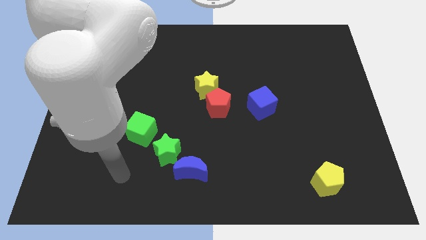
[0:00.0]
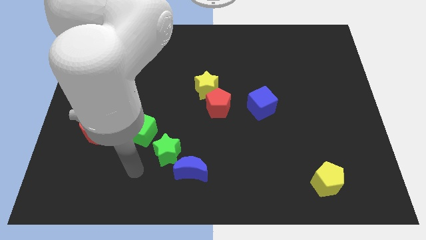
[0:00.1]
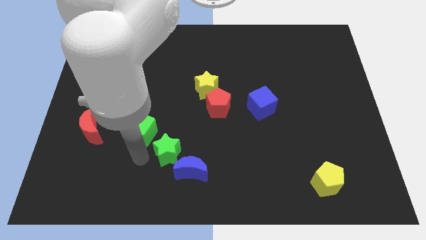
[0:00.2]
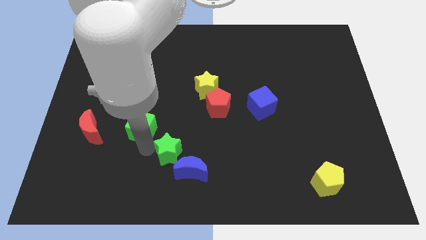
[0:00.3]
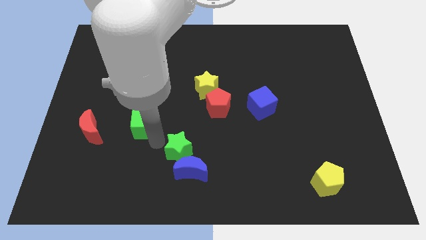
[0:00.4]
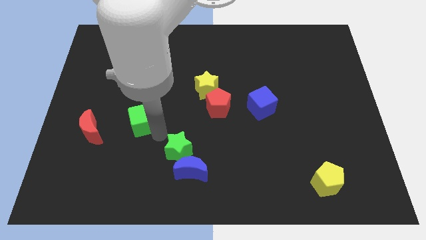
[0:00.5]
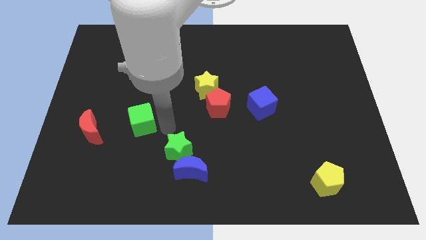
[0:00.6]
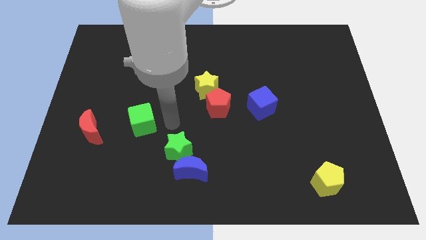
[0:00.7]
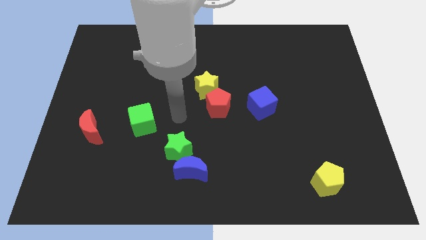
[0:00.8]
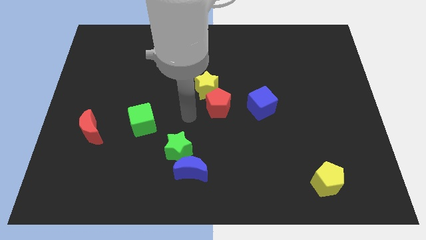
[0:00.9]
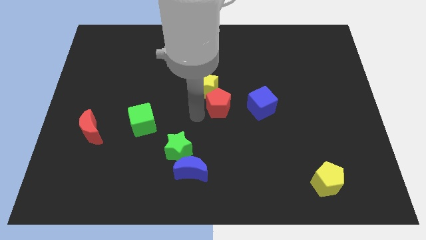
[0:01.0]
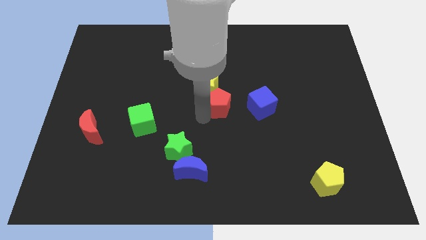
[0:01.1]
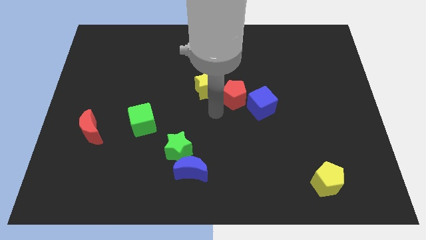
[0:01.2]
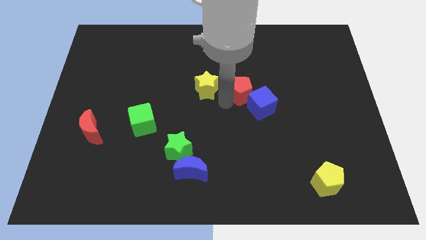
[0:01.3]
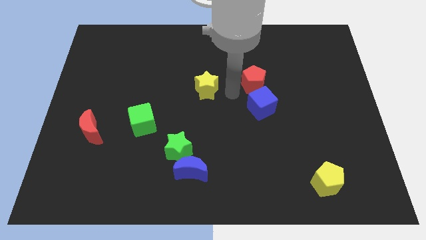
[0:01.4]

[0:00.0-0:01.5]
move the yellow star away from the red pentagon

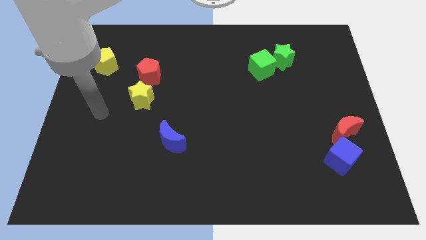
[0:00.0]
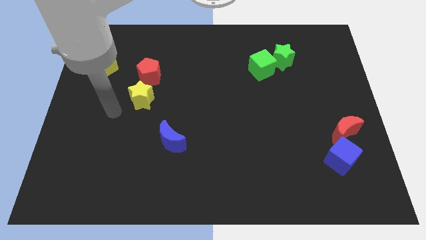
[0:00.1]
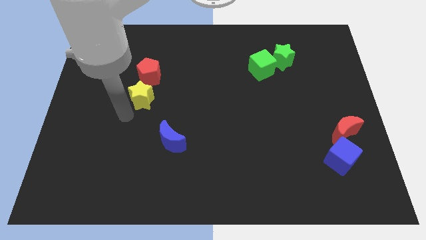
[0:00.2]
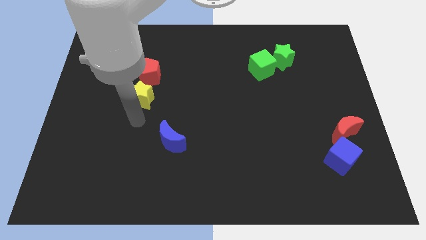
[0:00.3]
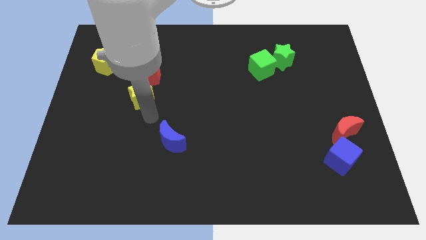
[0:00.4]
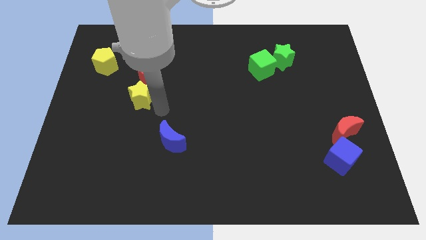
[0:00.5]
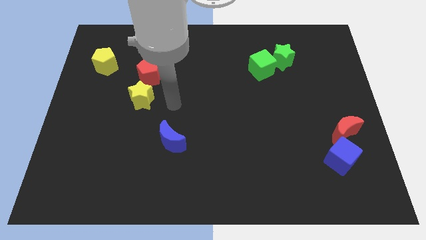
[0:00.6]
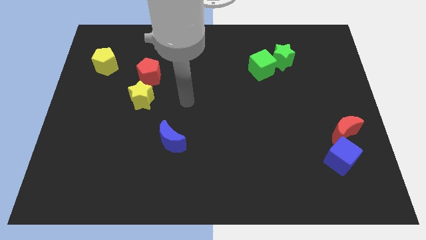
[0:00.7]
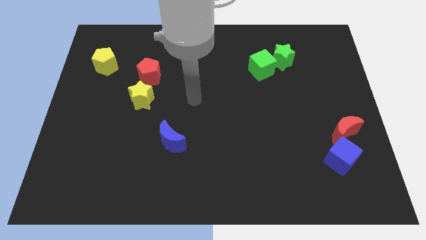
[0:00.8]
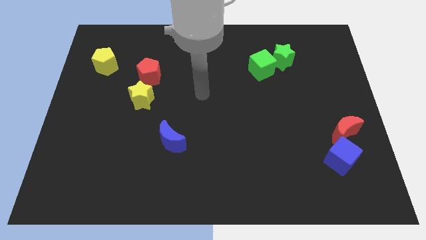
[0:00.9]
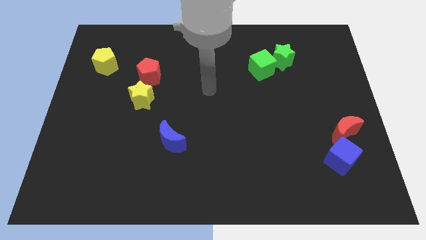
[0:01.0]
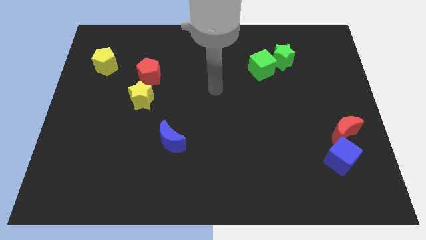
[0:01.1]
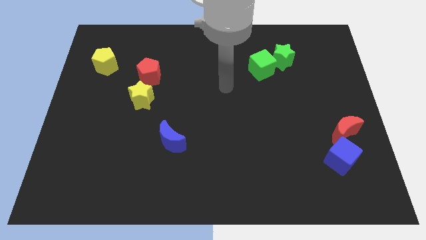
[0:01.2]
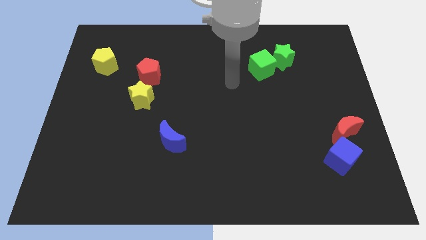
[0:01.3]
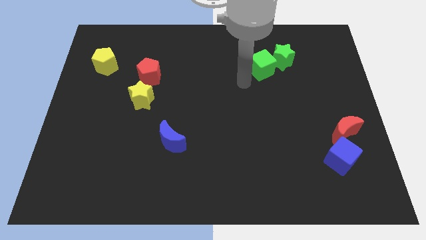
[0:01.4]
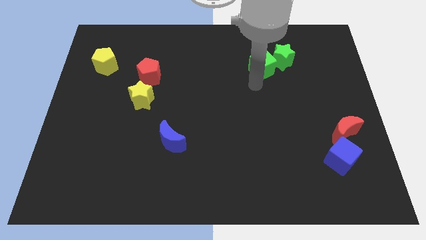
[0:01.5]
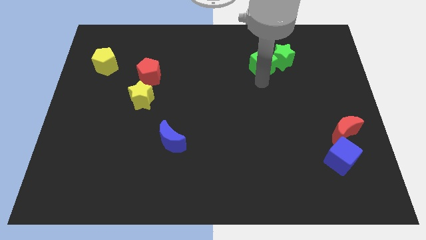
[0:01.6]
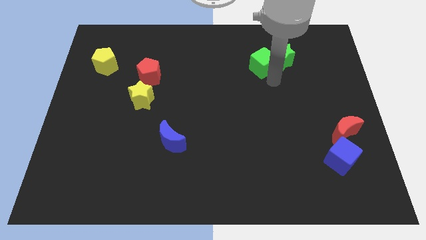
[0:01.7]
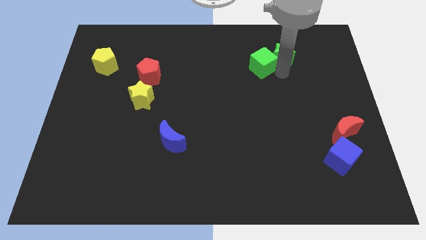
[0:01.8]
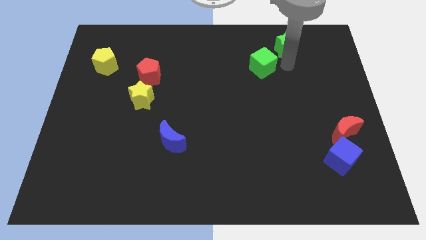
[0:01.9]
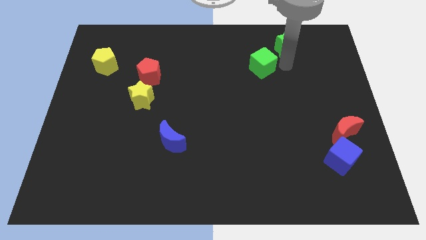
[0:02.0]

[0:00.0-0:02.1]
separate the green cube from the green star

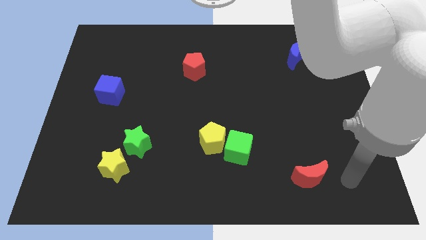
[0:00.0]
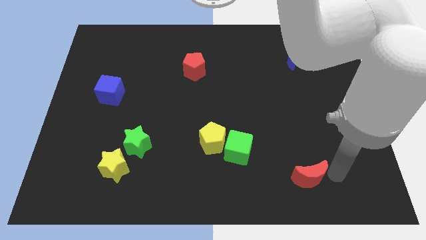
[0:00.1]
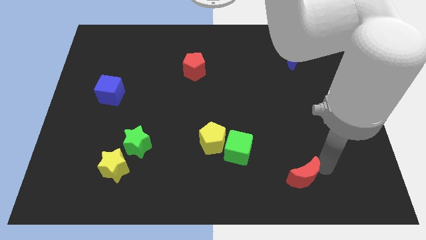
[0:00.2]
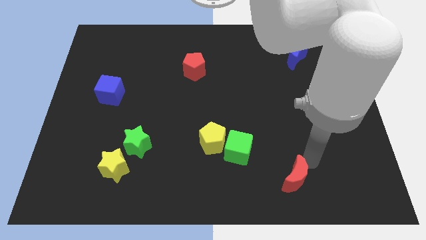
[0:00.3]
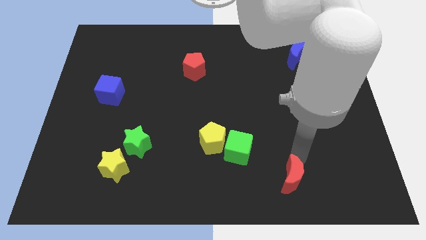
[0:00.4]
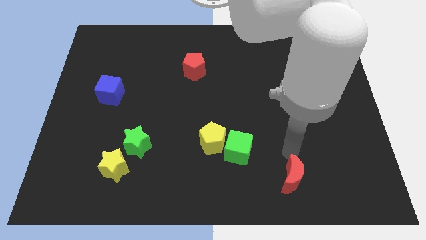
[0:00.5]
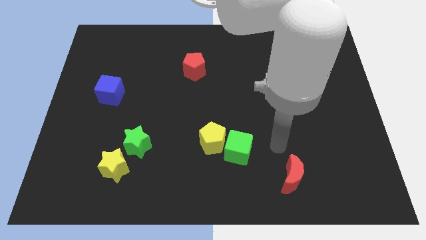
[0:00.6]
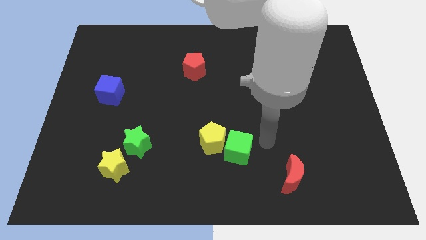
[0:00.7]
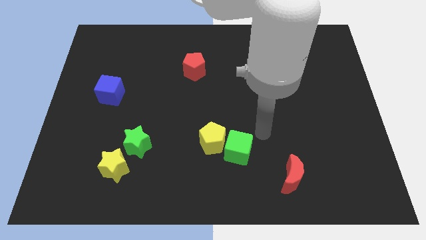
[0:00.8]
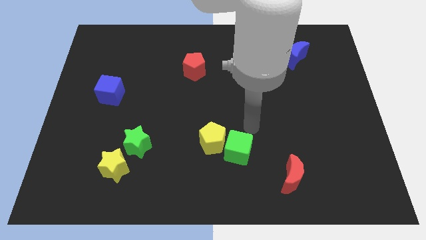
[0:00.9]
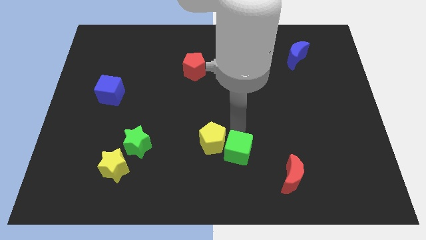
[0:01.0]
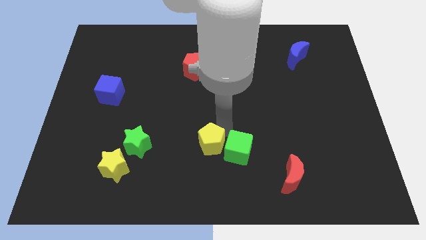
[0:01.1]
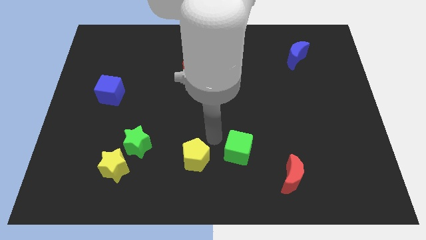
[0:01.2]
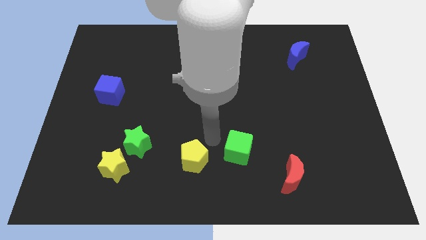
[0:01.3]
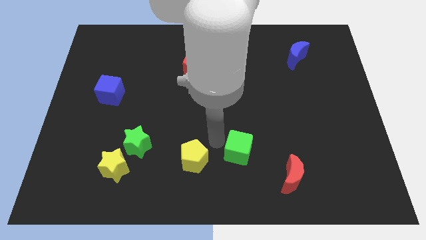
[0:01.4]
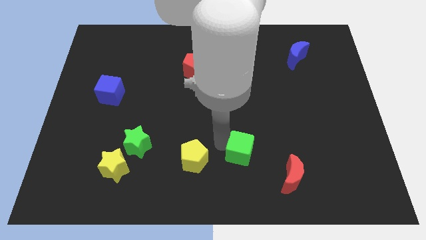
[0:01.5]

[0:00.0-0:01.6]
pull the green cube apart from the yellow pentagon

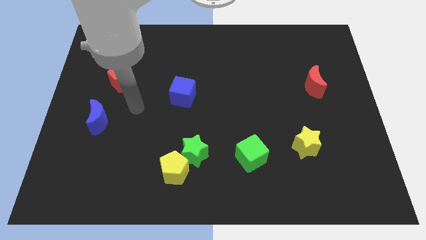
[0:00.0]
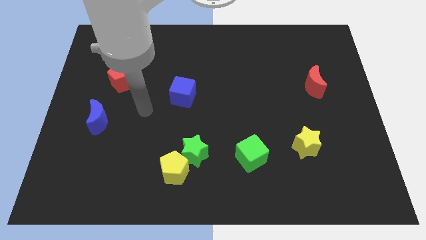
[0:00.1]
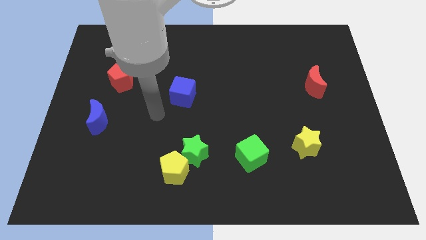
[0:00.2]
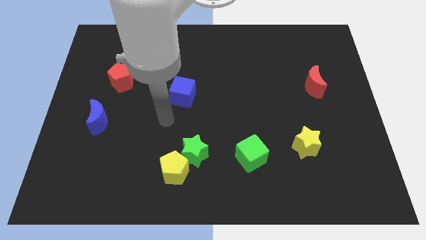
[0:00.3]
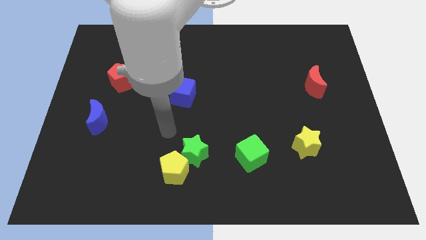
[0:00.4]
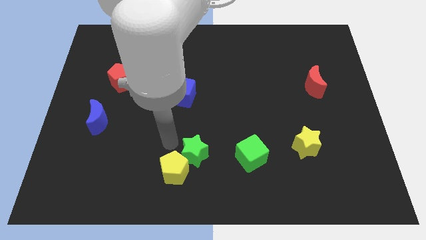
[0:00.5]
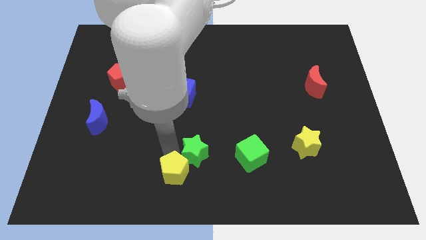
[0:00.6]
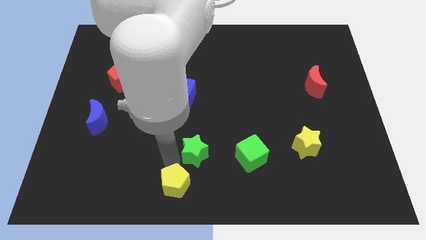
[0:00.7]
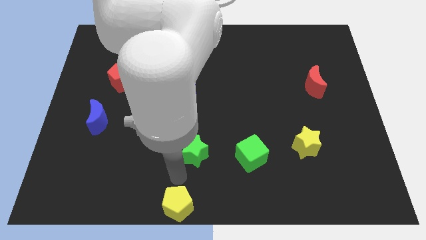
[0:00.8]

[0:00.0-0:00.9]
move the green star away from the yellow pentagon

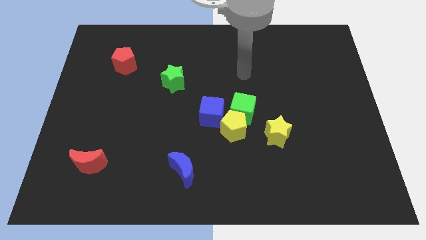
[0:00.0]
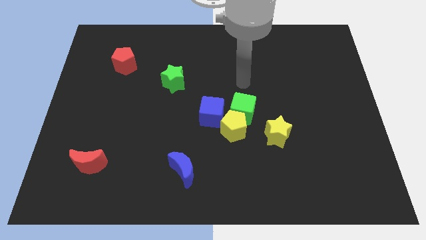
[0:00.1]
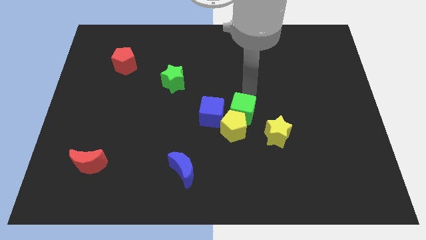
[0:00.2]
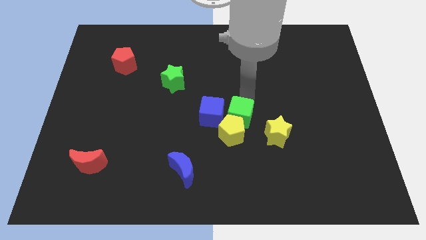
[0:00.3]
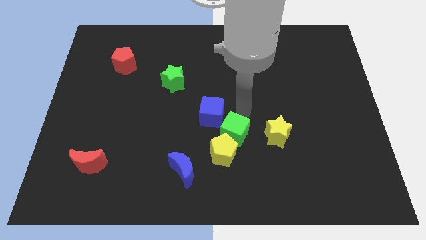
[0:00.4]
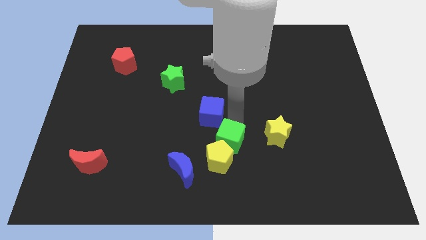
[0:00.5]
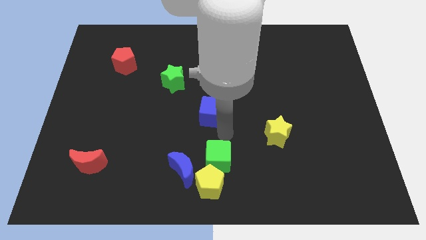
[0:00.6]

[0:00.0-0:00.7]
pull the blue cube apart from the yellow pentagon and green cube

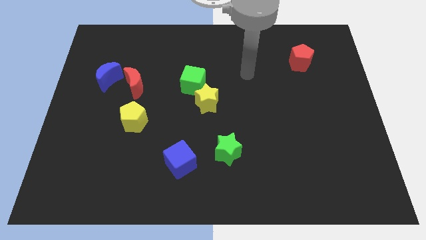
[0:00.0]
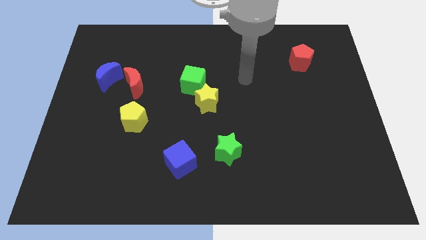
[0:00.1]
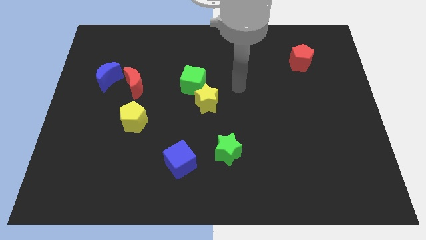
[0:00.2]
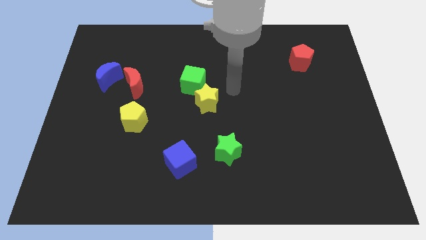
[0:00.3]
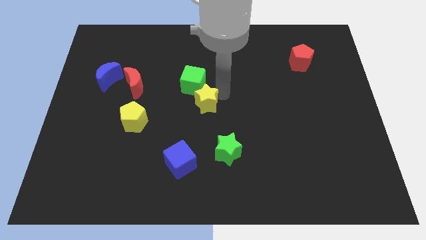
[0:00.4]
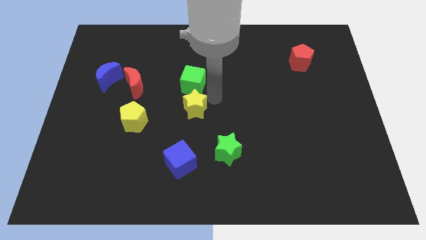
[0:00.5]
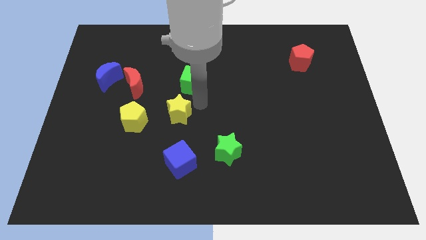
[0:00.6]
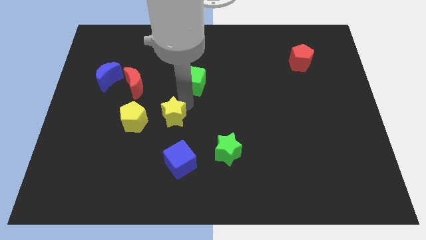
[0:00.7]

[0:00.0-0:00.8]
separate the green cube from the yellow star

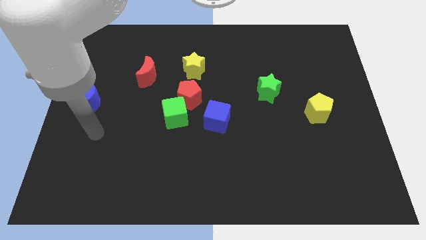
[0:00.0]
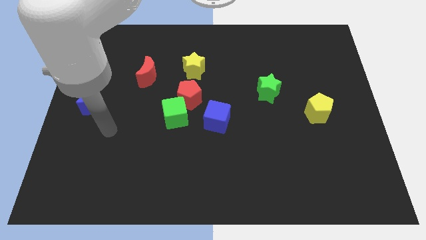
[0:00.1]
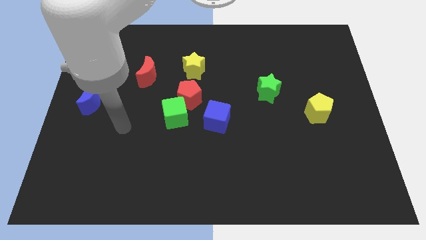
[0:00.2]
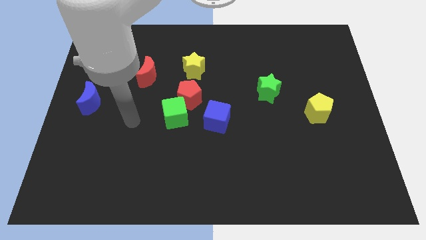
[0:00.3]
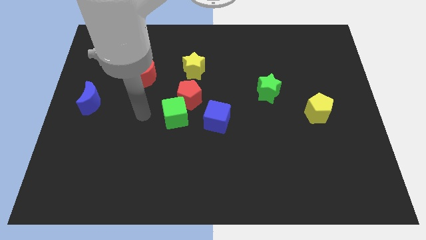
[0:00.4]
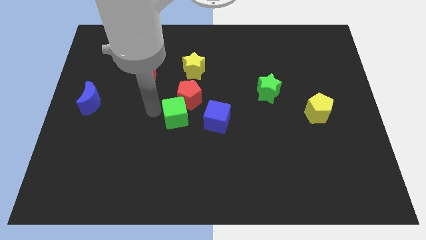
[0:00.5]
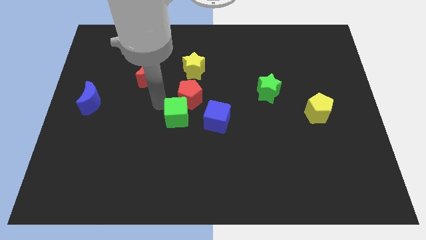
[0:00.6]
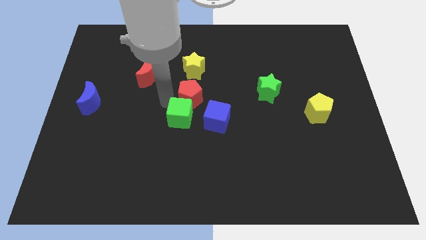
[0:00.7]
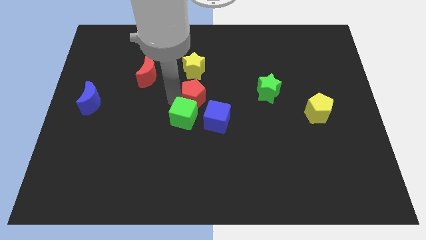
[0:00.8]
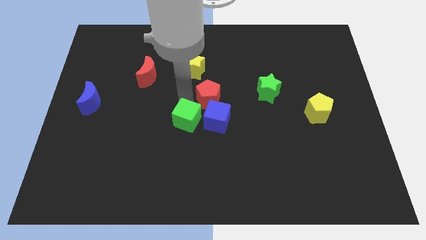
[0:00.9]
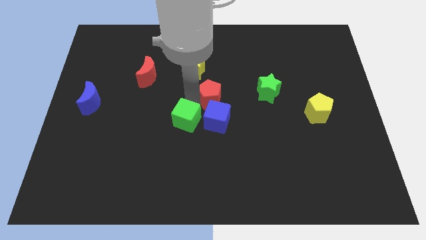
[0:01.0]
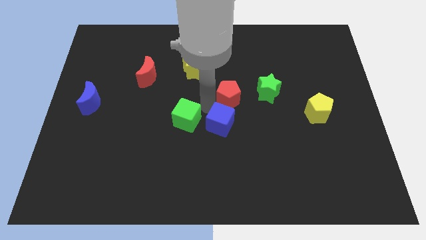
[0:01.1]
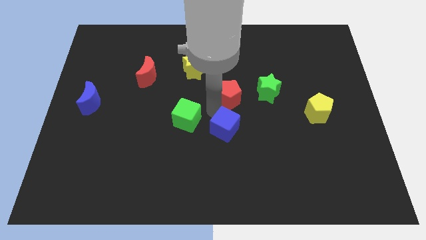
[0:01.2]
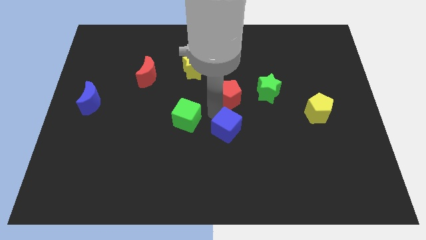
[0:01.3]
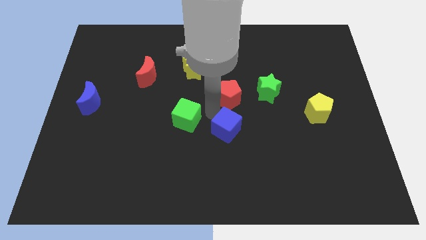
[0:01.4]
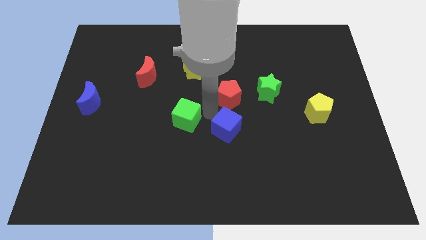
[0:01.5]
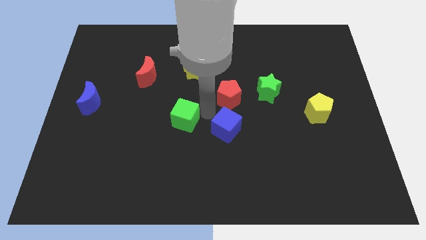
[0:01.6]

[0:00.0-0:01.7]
pull the green cube apart from the red pentagon and blue cube
